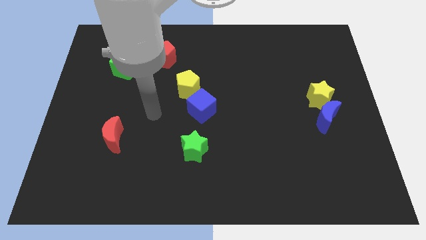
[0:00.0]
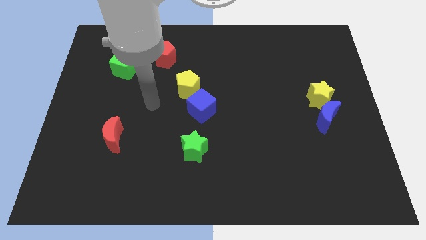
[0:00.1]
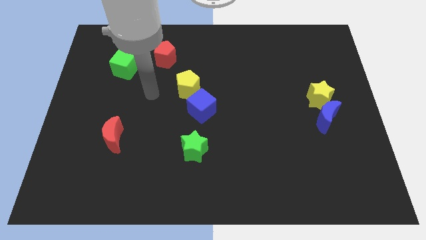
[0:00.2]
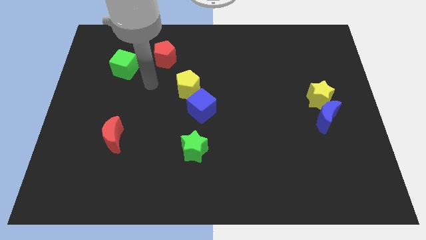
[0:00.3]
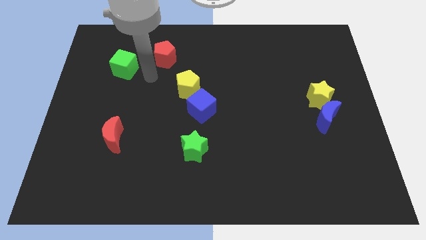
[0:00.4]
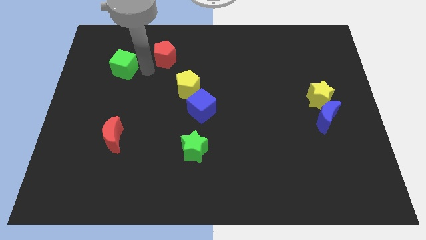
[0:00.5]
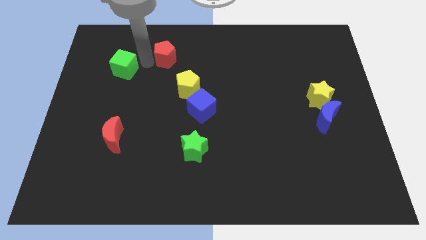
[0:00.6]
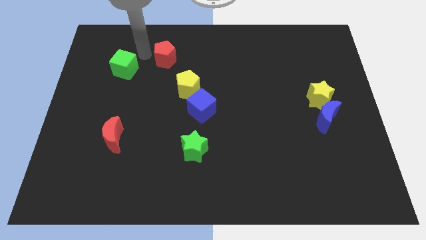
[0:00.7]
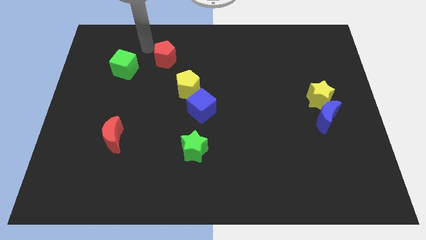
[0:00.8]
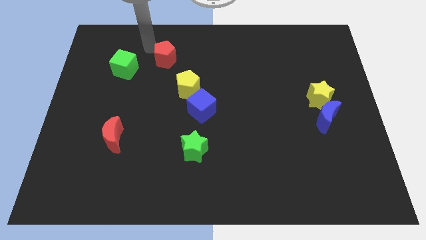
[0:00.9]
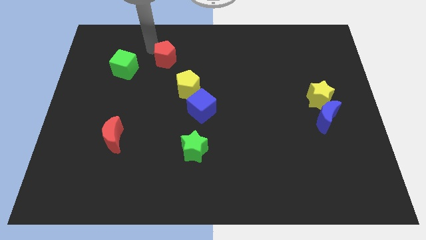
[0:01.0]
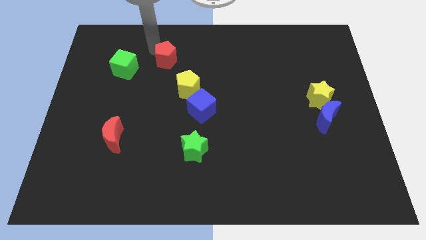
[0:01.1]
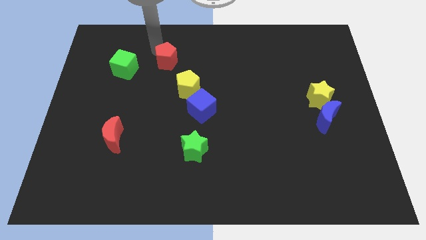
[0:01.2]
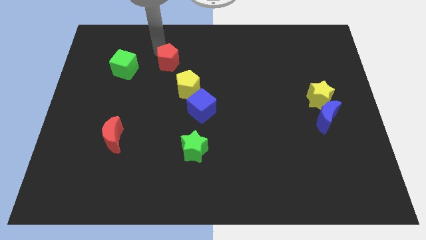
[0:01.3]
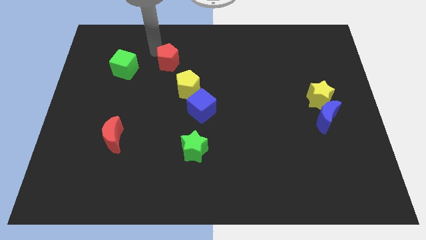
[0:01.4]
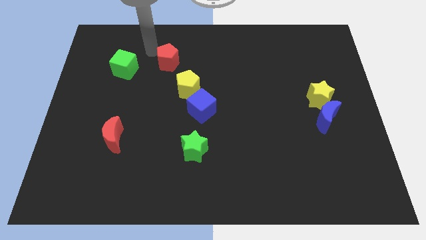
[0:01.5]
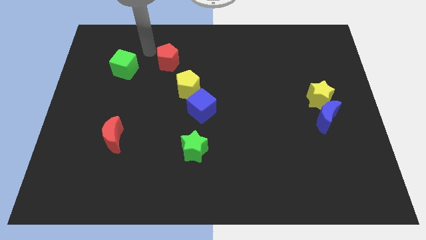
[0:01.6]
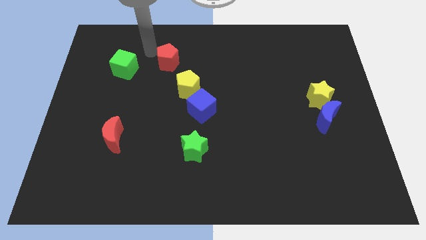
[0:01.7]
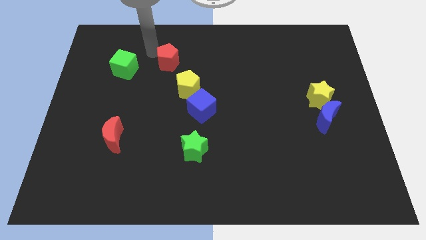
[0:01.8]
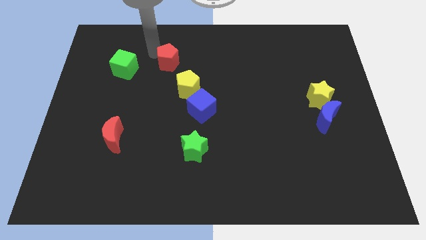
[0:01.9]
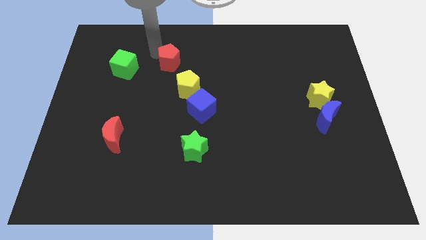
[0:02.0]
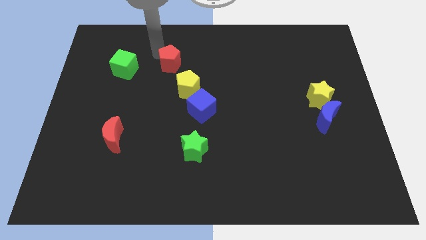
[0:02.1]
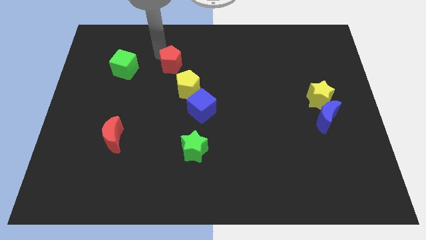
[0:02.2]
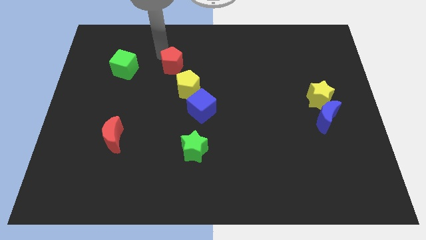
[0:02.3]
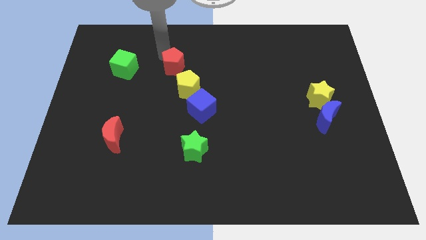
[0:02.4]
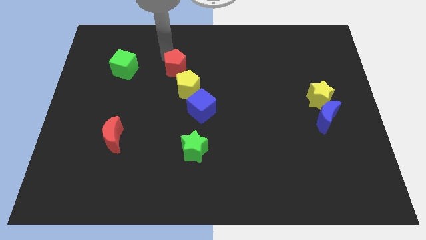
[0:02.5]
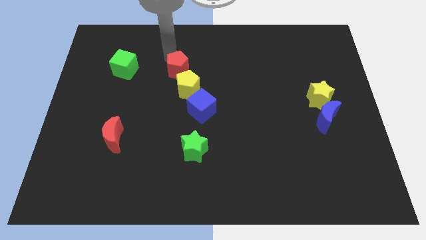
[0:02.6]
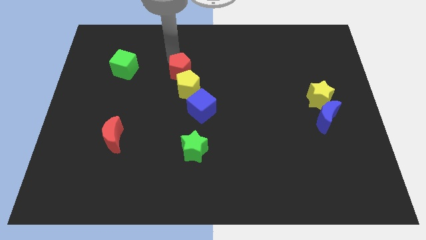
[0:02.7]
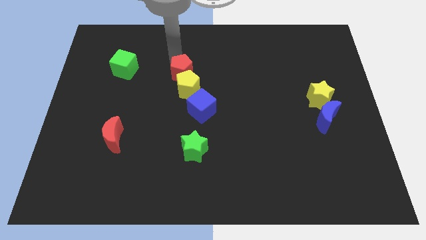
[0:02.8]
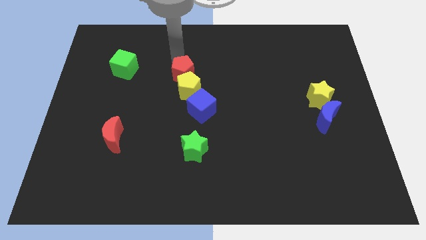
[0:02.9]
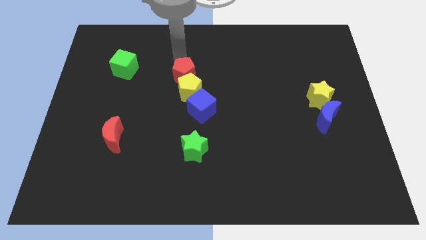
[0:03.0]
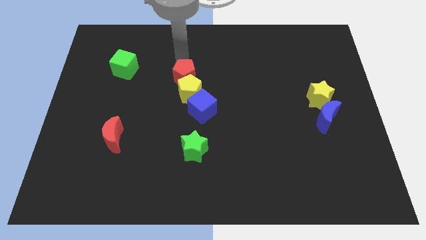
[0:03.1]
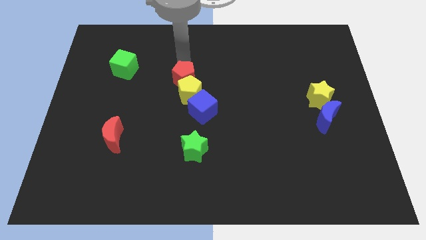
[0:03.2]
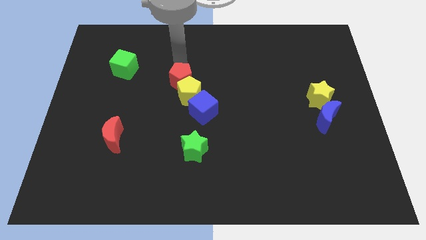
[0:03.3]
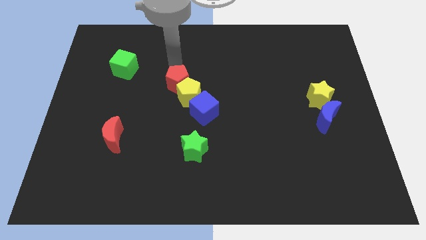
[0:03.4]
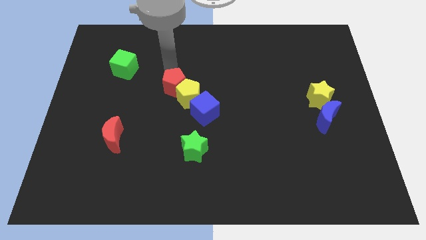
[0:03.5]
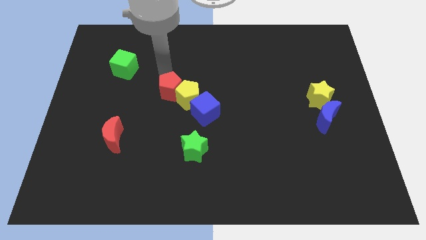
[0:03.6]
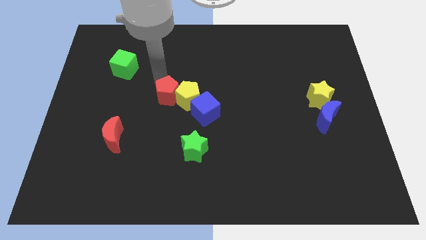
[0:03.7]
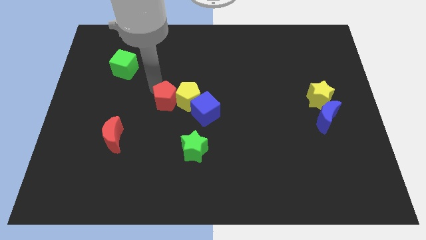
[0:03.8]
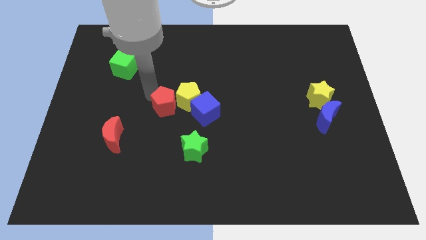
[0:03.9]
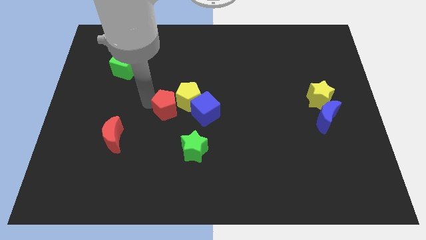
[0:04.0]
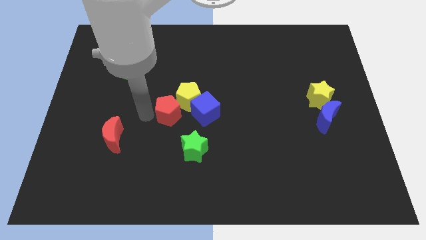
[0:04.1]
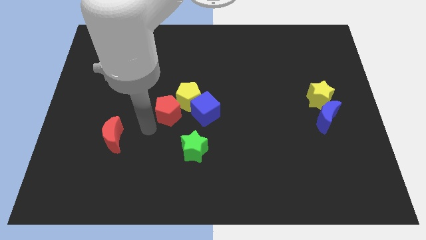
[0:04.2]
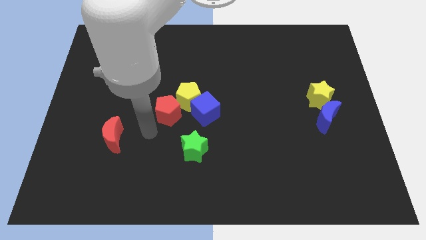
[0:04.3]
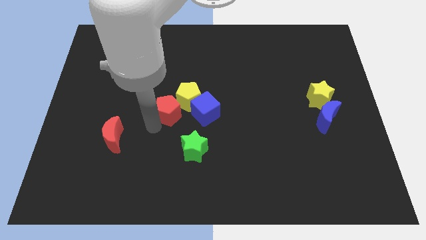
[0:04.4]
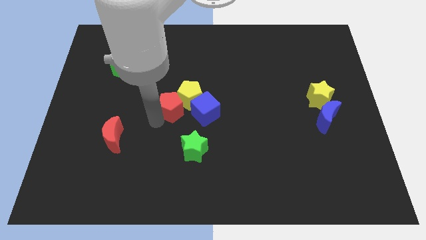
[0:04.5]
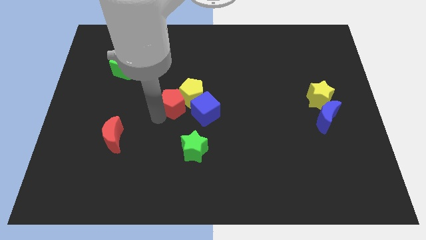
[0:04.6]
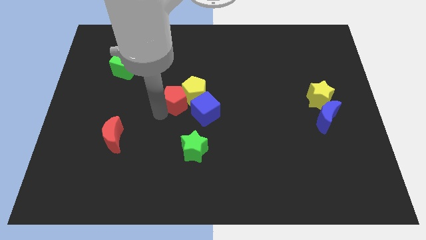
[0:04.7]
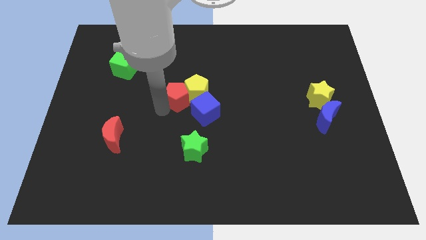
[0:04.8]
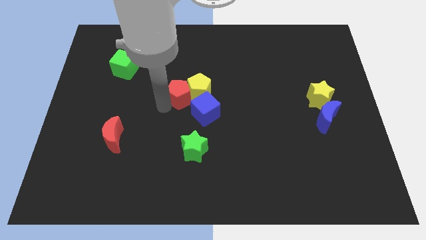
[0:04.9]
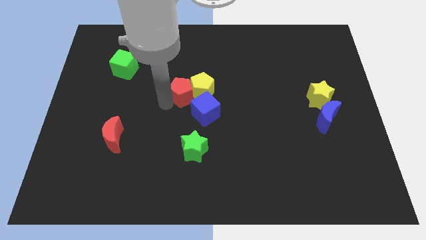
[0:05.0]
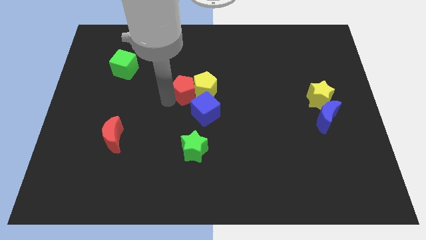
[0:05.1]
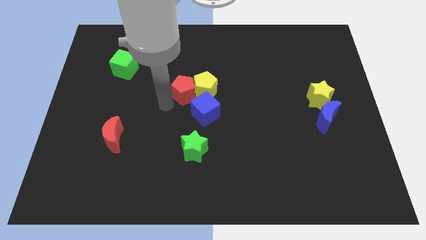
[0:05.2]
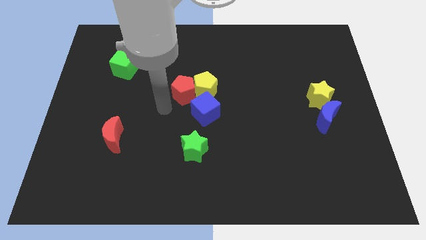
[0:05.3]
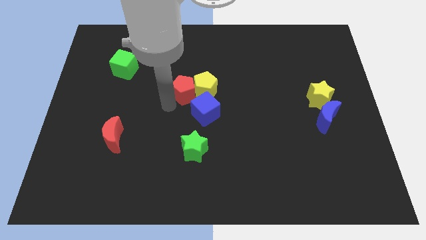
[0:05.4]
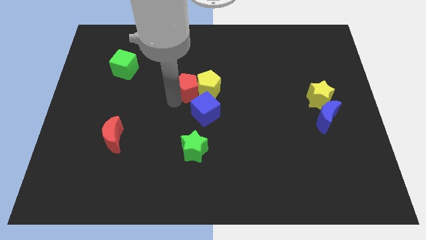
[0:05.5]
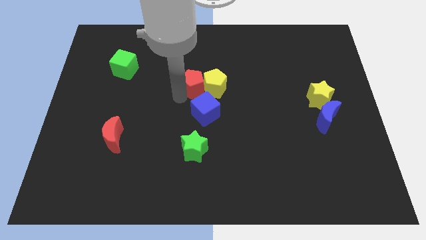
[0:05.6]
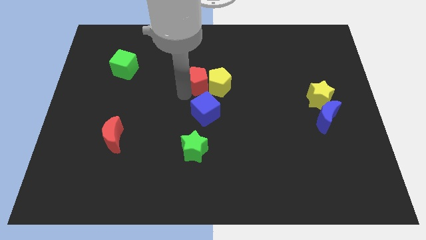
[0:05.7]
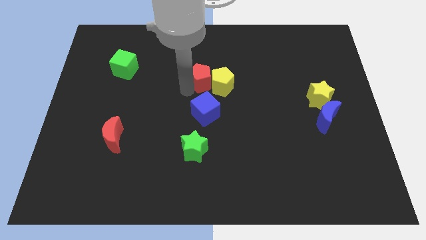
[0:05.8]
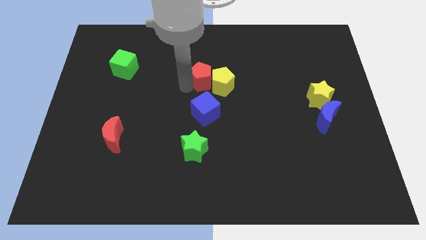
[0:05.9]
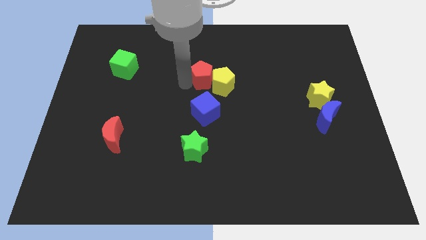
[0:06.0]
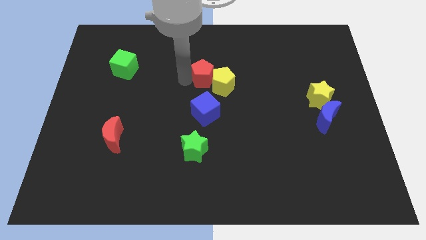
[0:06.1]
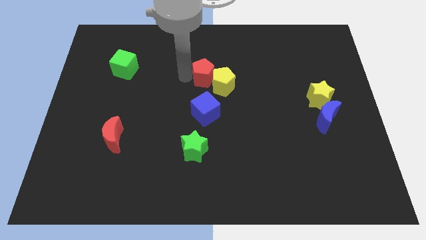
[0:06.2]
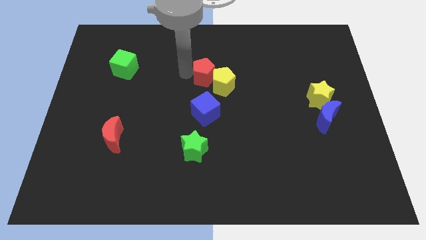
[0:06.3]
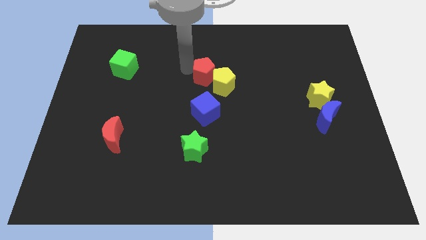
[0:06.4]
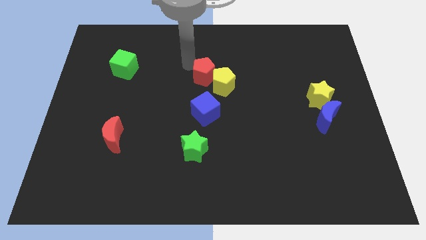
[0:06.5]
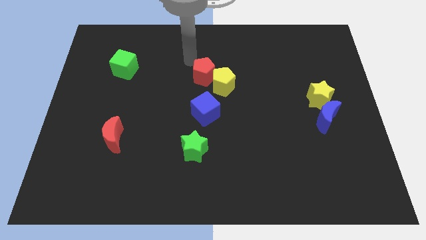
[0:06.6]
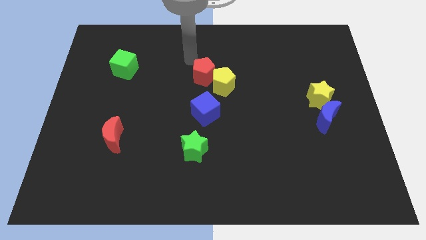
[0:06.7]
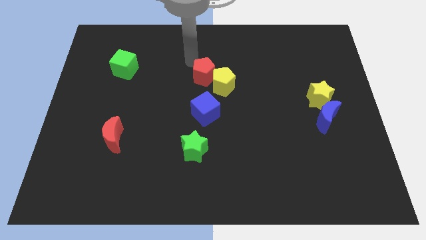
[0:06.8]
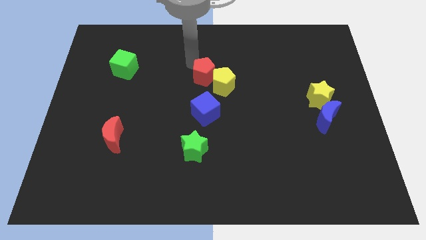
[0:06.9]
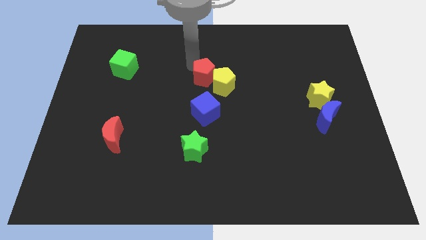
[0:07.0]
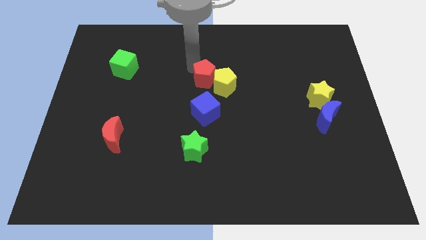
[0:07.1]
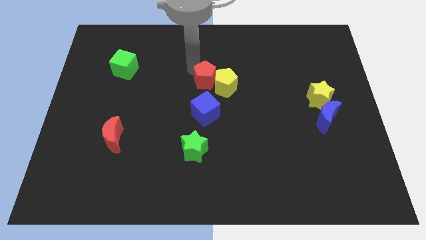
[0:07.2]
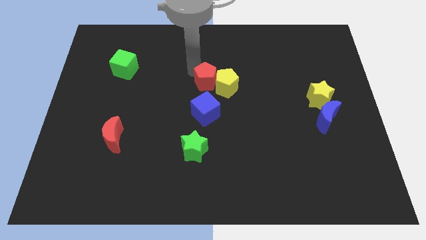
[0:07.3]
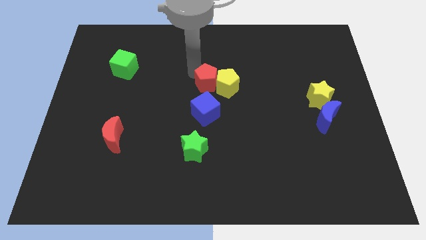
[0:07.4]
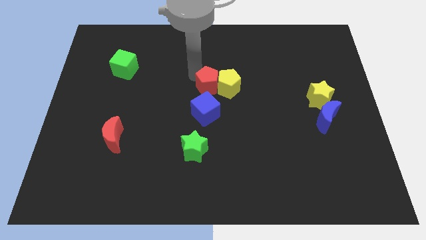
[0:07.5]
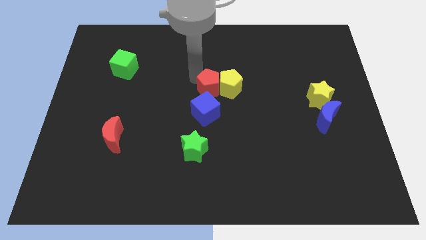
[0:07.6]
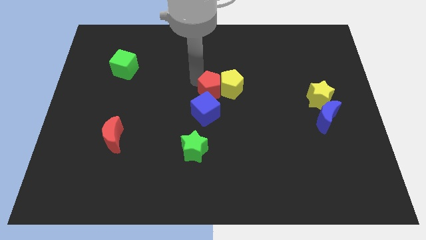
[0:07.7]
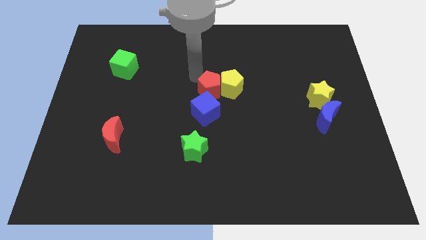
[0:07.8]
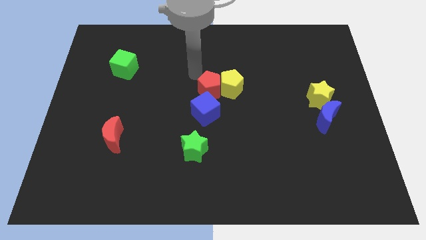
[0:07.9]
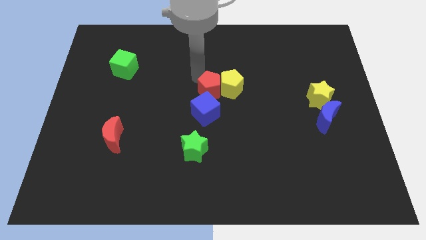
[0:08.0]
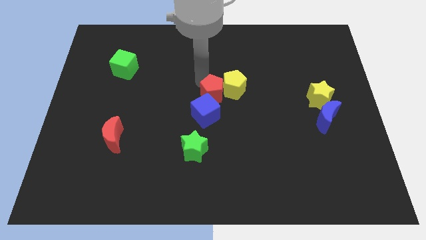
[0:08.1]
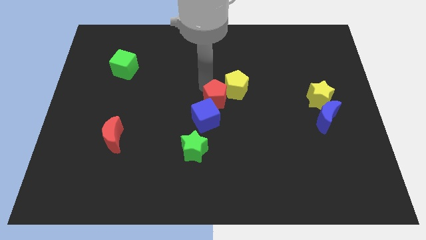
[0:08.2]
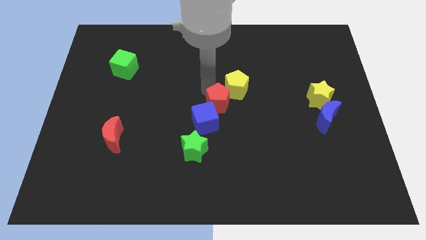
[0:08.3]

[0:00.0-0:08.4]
slide the red pentagon down and then right
